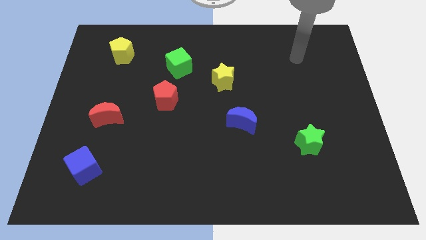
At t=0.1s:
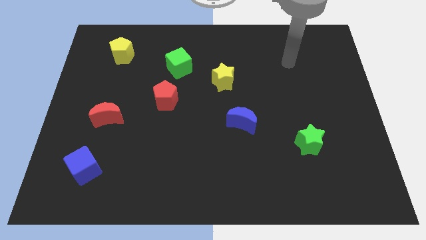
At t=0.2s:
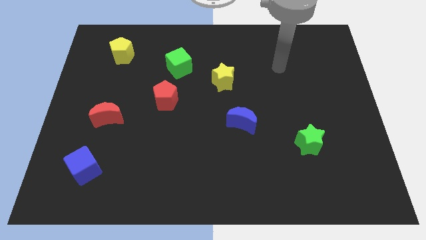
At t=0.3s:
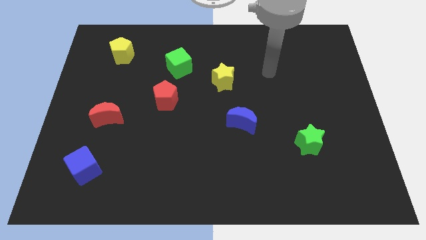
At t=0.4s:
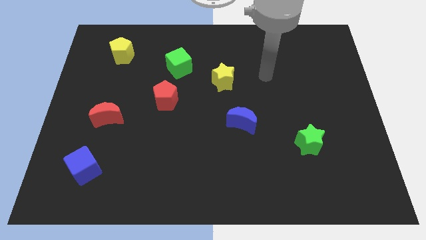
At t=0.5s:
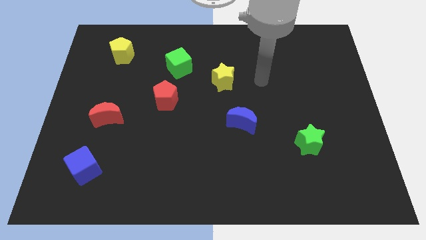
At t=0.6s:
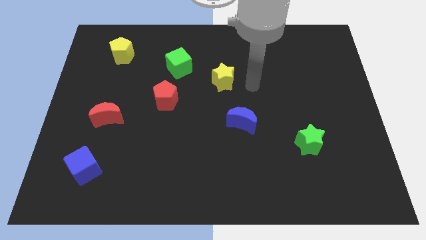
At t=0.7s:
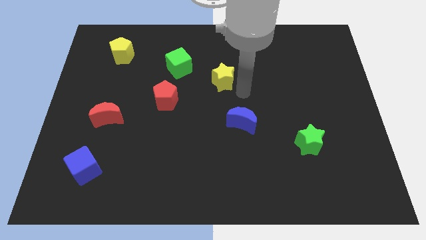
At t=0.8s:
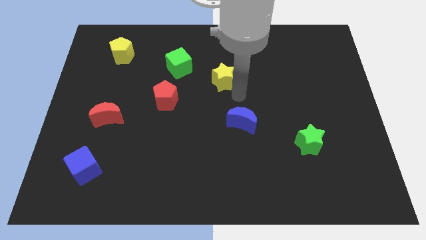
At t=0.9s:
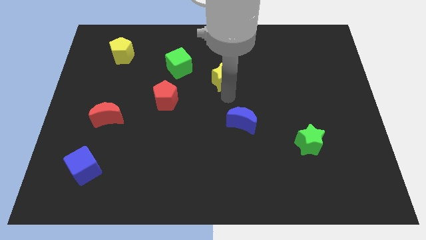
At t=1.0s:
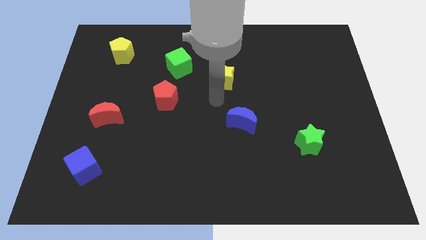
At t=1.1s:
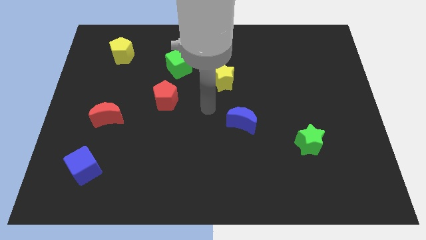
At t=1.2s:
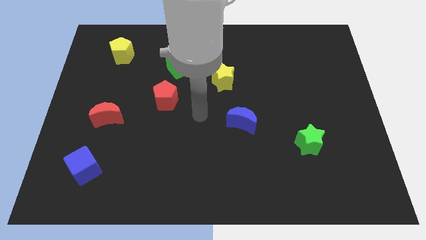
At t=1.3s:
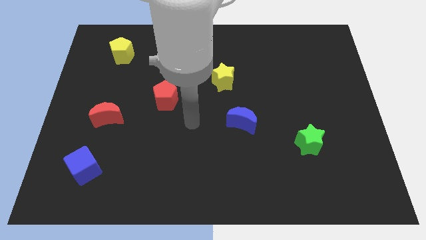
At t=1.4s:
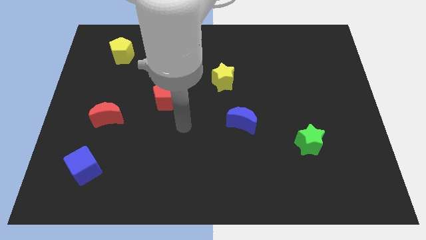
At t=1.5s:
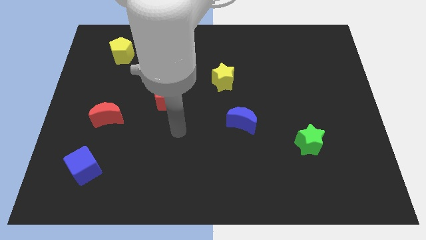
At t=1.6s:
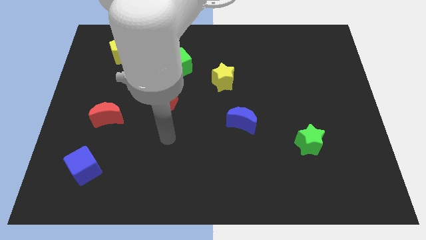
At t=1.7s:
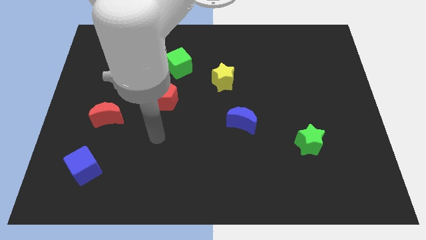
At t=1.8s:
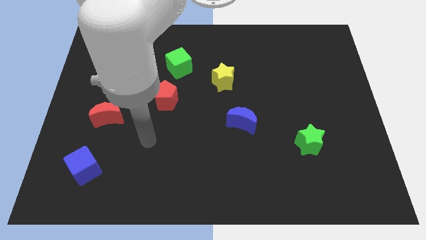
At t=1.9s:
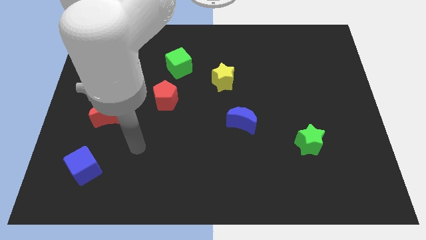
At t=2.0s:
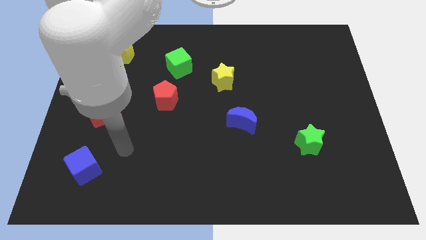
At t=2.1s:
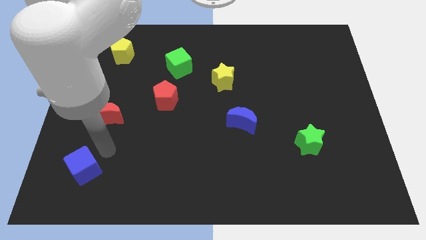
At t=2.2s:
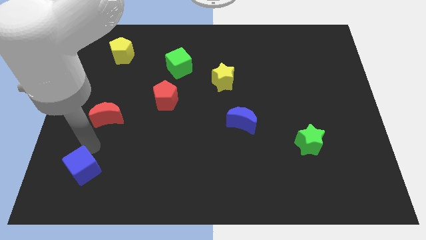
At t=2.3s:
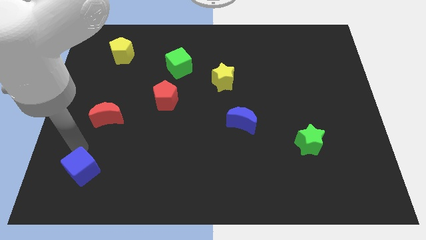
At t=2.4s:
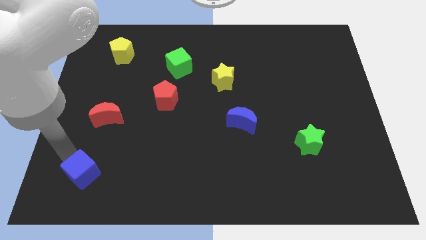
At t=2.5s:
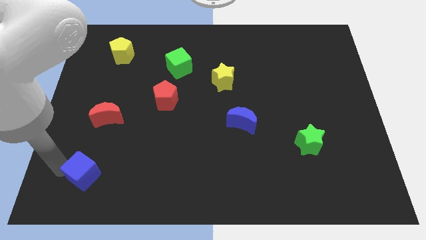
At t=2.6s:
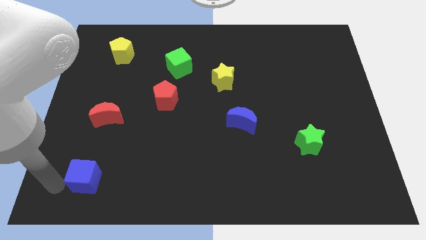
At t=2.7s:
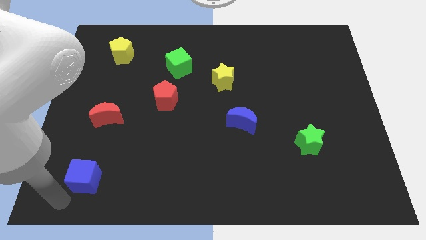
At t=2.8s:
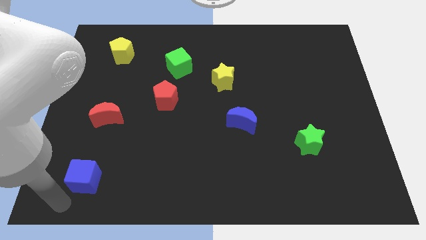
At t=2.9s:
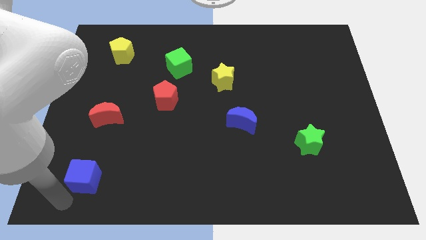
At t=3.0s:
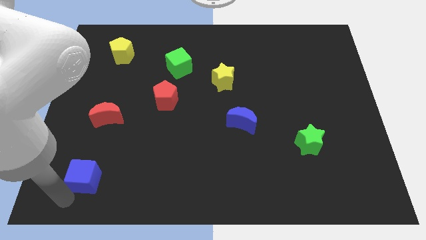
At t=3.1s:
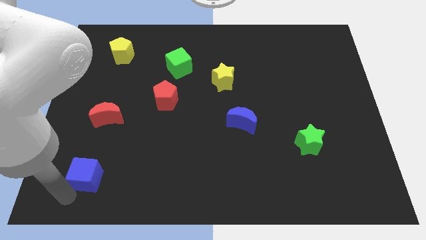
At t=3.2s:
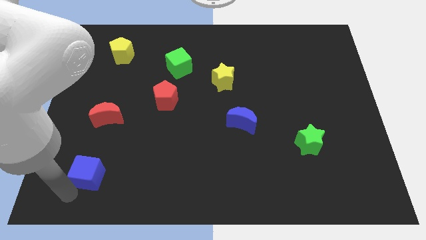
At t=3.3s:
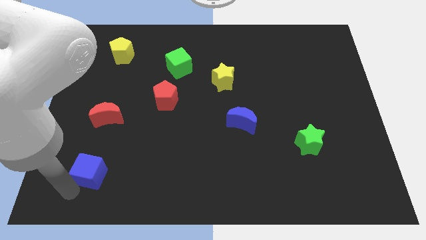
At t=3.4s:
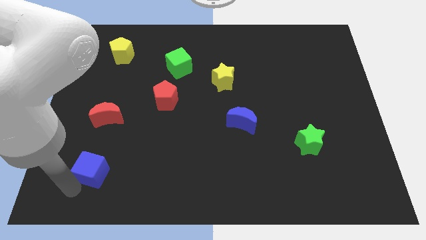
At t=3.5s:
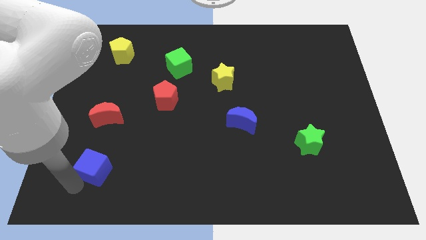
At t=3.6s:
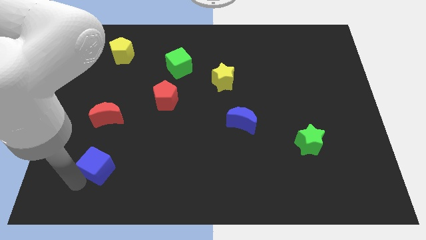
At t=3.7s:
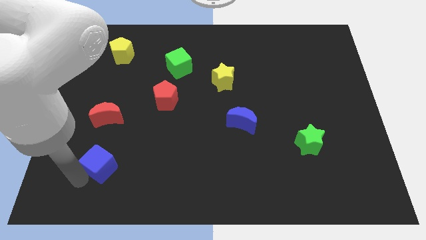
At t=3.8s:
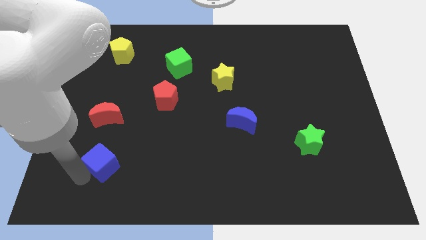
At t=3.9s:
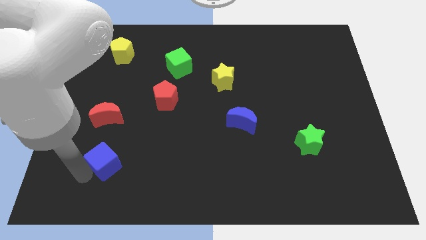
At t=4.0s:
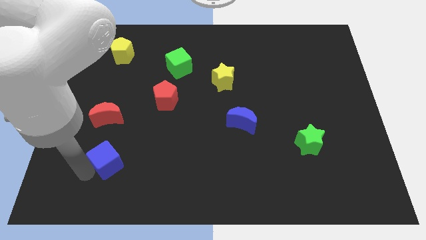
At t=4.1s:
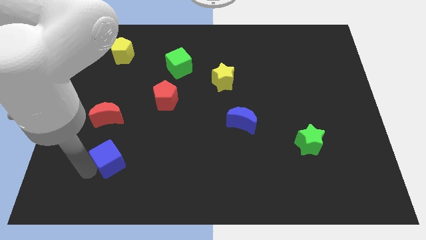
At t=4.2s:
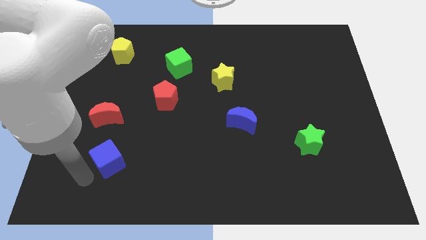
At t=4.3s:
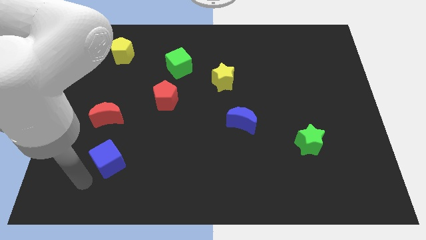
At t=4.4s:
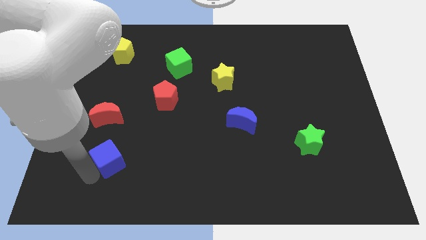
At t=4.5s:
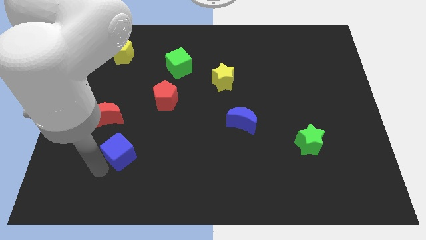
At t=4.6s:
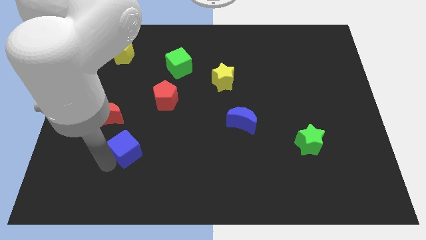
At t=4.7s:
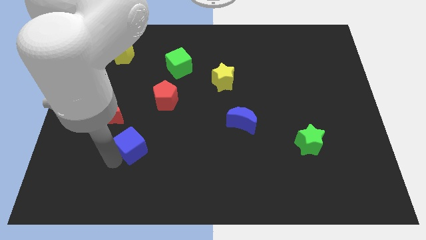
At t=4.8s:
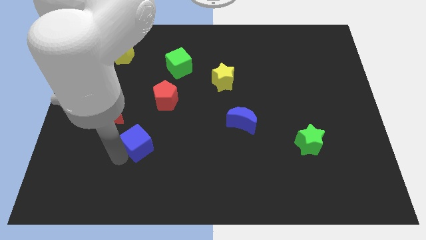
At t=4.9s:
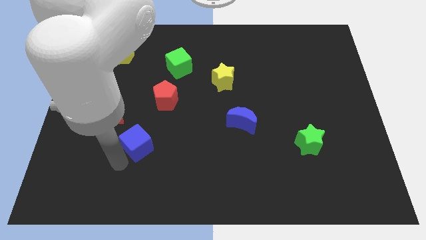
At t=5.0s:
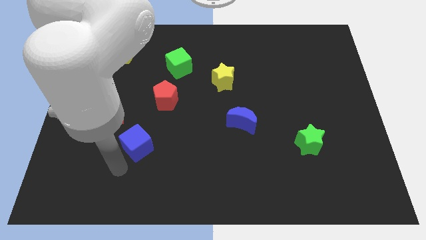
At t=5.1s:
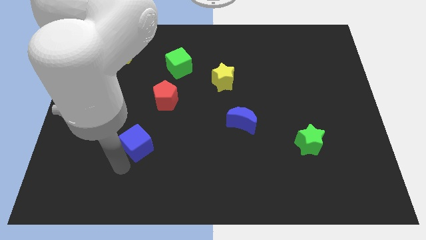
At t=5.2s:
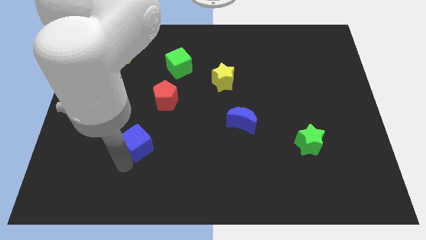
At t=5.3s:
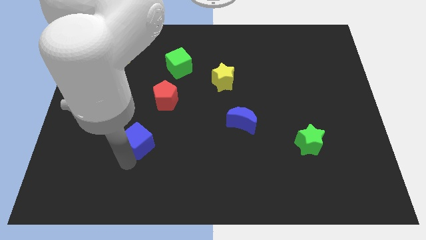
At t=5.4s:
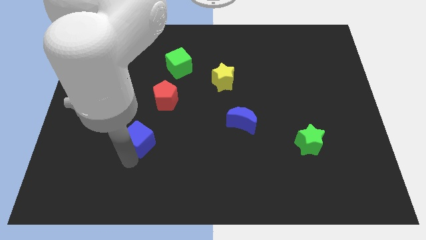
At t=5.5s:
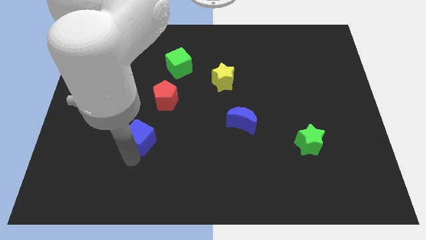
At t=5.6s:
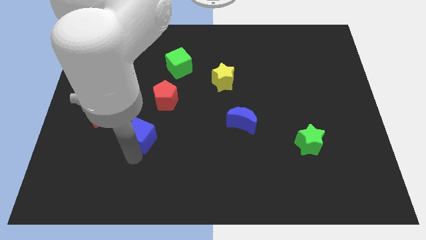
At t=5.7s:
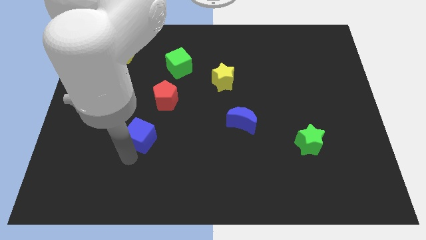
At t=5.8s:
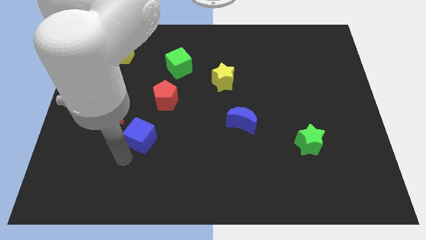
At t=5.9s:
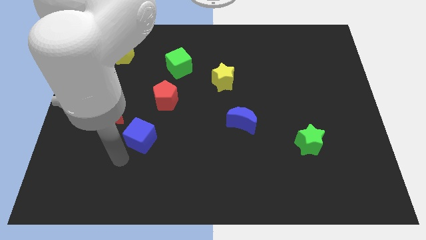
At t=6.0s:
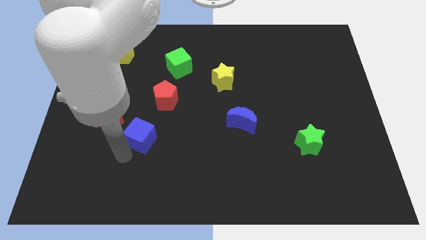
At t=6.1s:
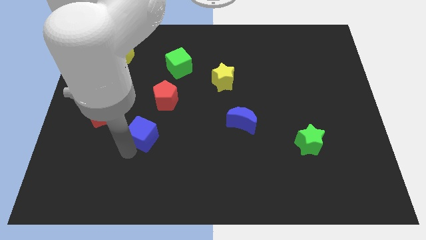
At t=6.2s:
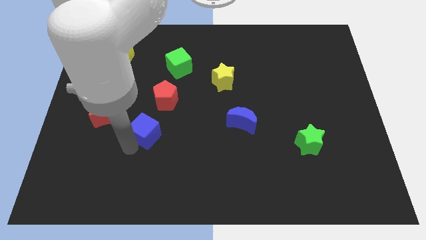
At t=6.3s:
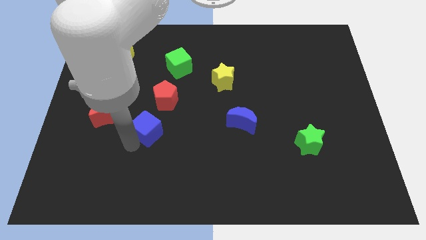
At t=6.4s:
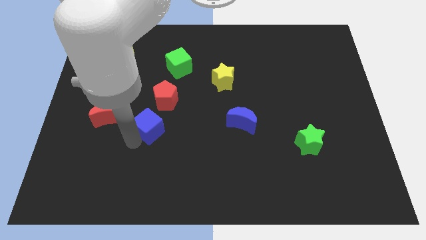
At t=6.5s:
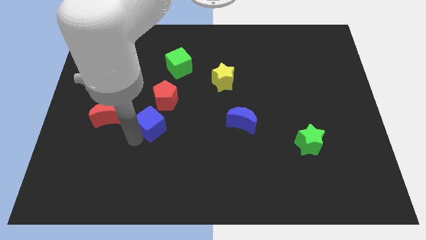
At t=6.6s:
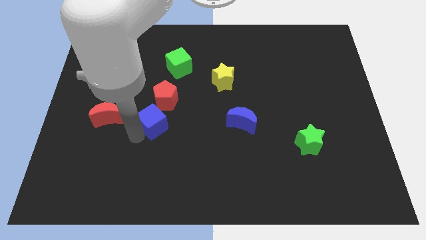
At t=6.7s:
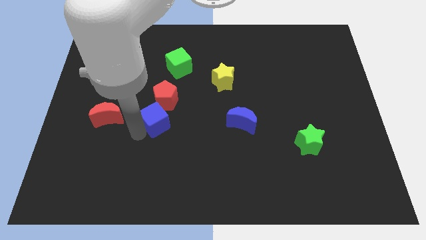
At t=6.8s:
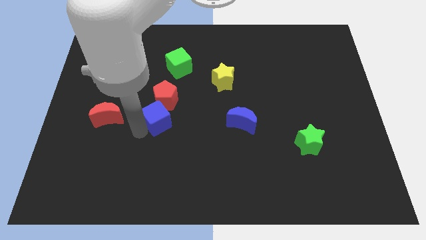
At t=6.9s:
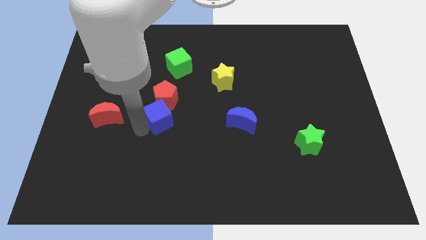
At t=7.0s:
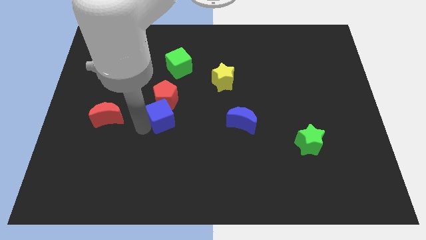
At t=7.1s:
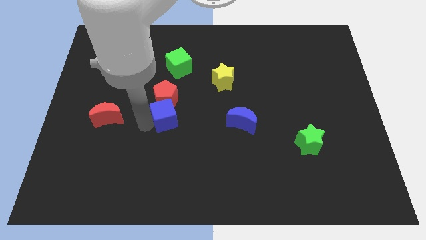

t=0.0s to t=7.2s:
move the blue cube up and then right

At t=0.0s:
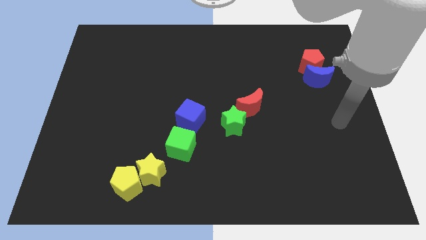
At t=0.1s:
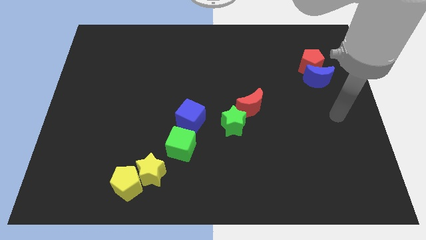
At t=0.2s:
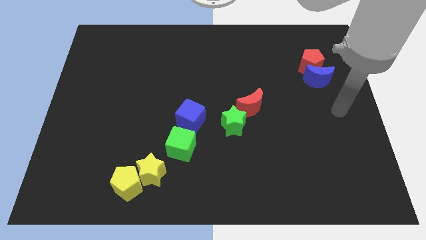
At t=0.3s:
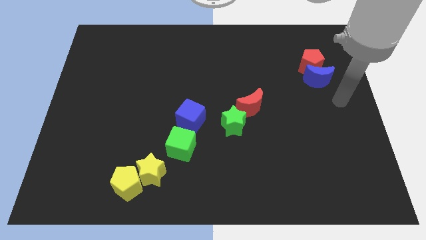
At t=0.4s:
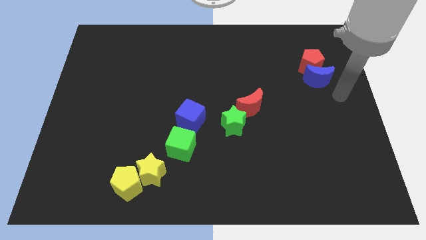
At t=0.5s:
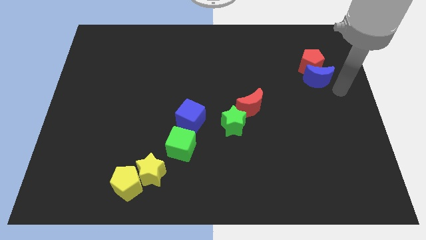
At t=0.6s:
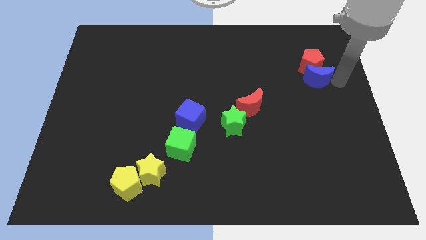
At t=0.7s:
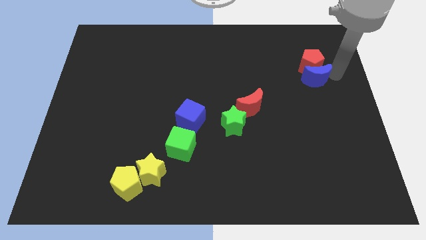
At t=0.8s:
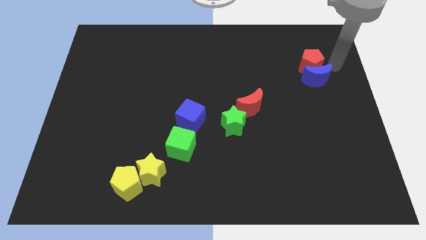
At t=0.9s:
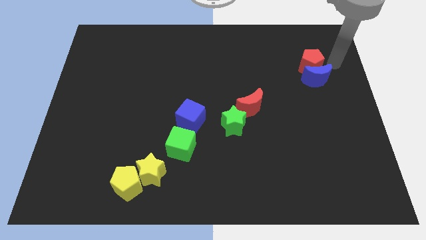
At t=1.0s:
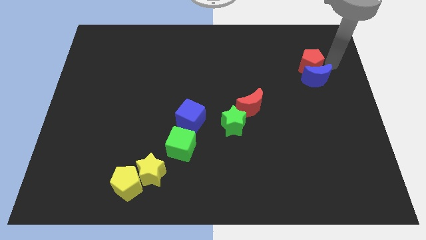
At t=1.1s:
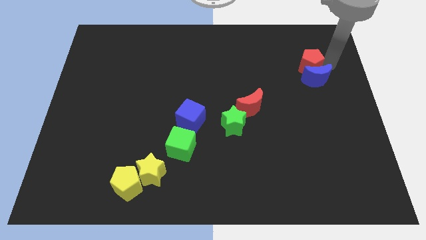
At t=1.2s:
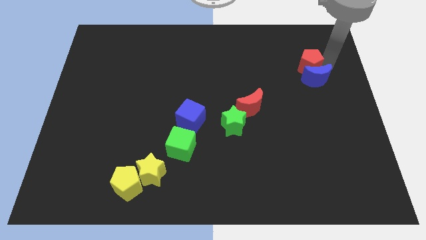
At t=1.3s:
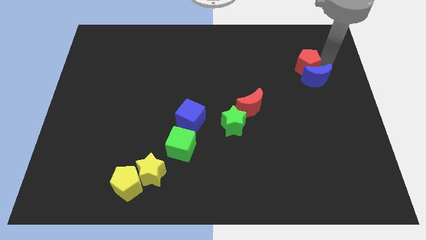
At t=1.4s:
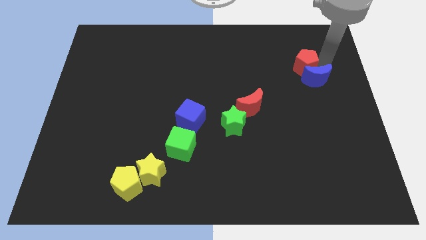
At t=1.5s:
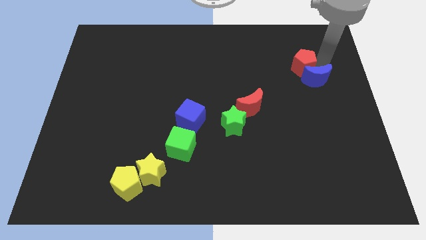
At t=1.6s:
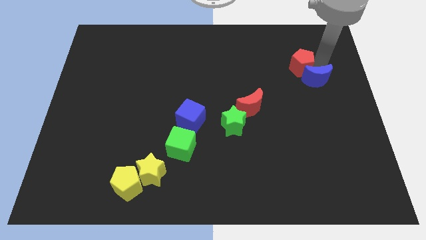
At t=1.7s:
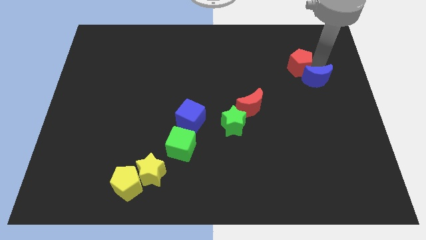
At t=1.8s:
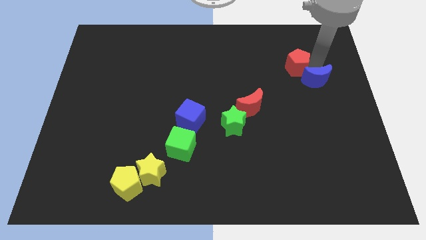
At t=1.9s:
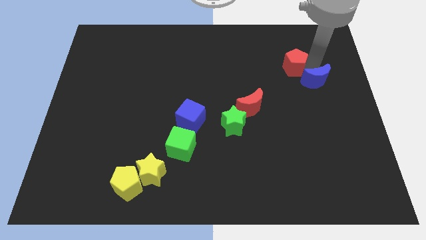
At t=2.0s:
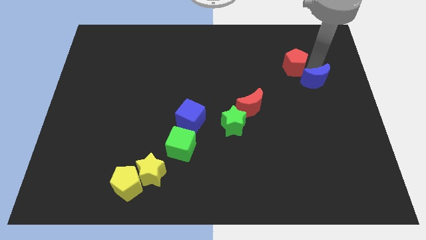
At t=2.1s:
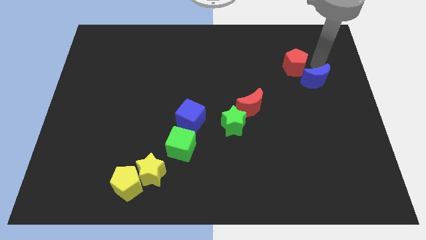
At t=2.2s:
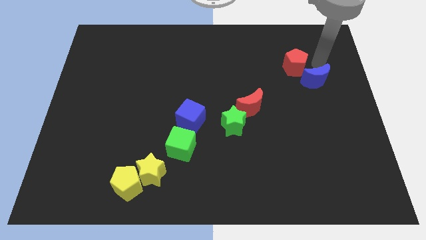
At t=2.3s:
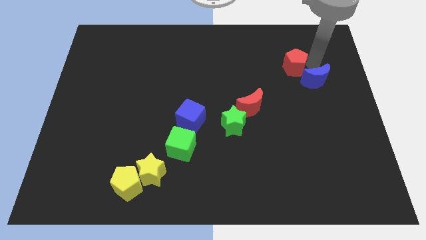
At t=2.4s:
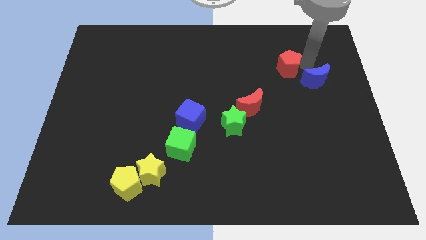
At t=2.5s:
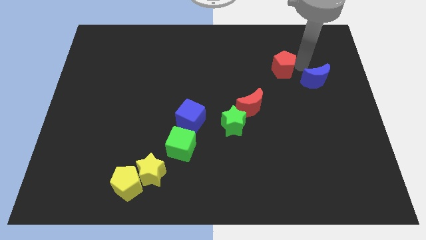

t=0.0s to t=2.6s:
slide the red pentagon to the left a little
